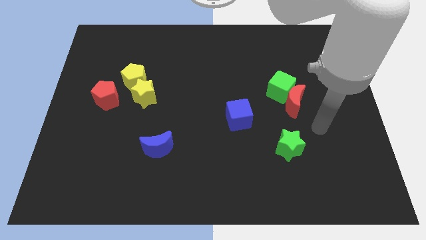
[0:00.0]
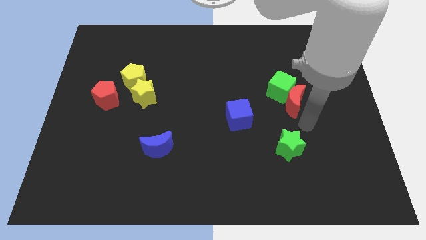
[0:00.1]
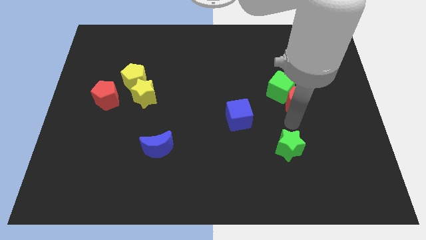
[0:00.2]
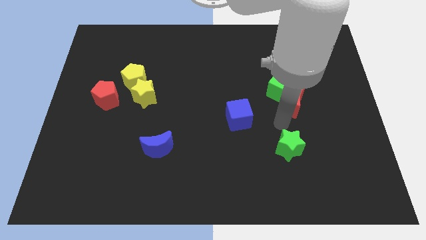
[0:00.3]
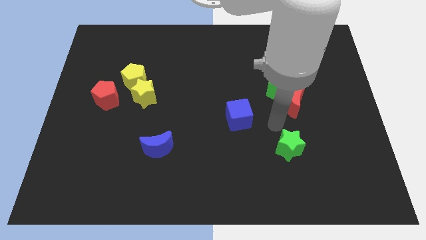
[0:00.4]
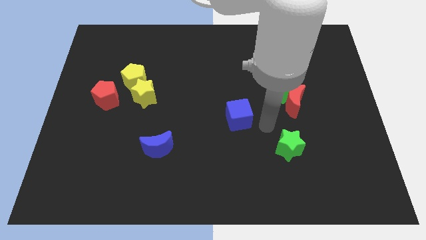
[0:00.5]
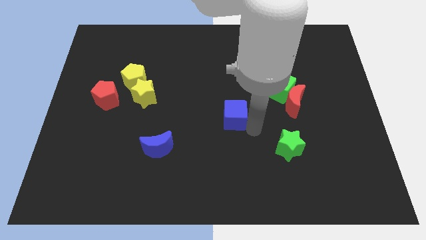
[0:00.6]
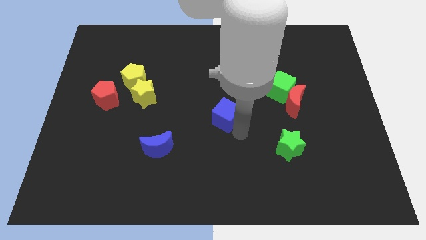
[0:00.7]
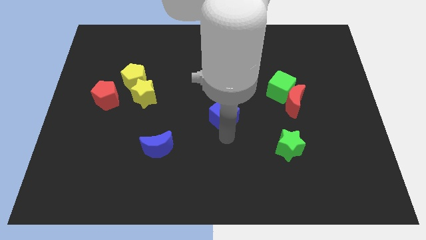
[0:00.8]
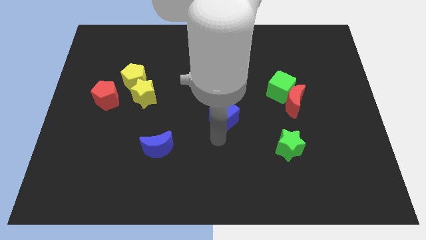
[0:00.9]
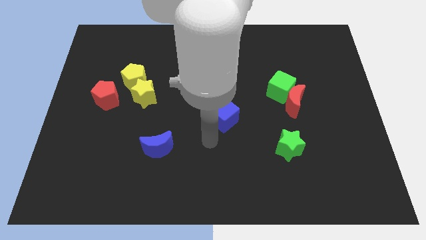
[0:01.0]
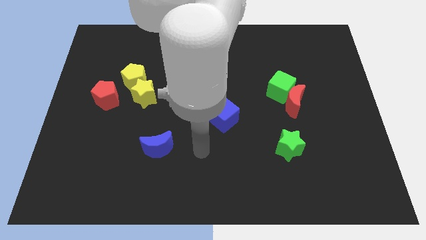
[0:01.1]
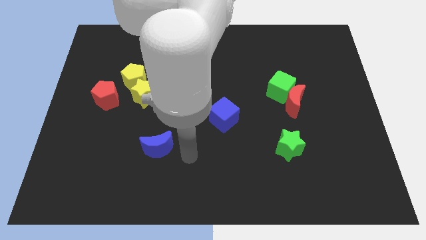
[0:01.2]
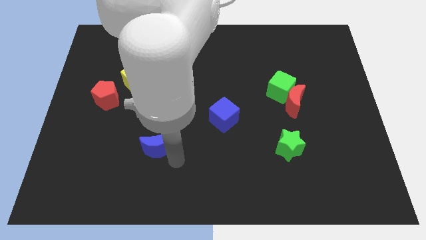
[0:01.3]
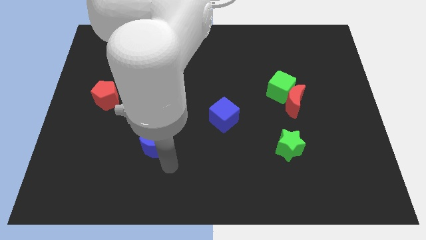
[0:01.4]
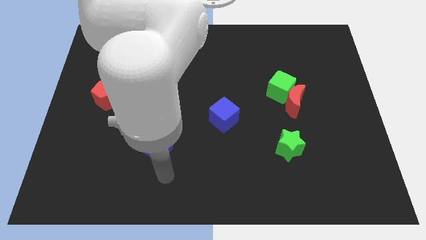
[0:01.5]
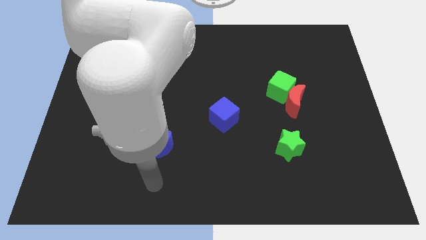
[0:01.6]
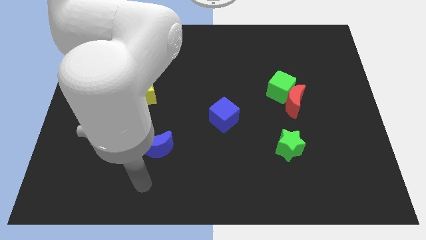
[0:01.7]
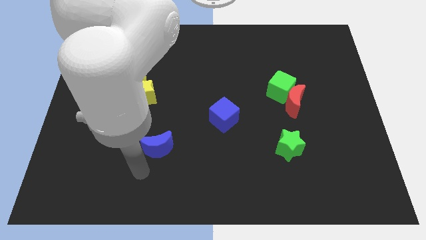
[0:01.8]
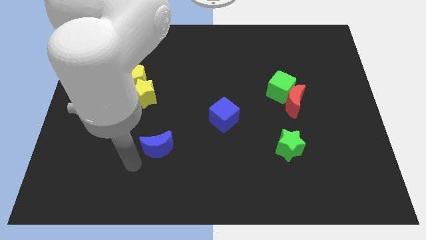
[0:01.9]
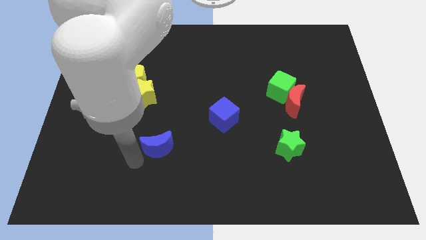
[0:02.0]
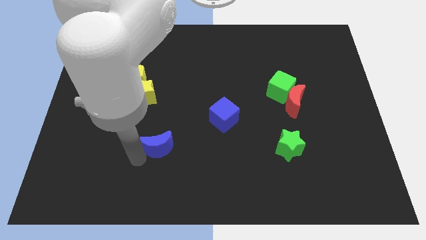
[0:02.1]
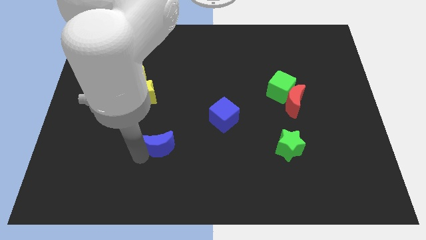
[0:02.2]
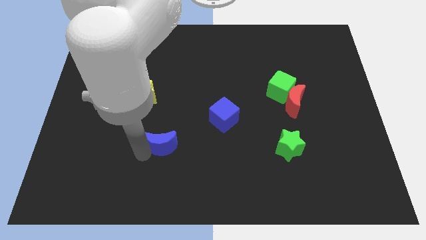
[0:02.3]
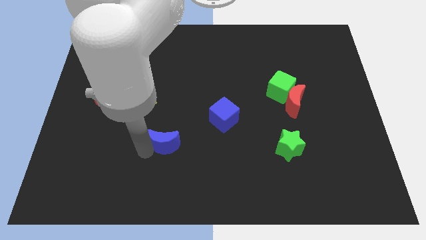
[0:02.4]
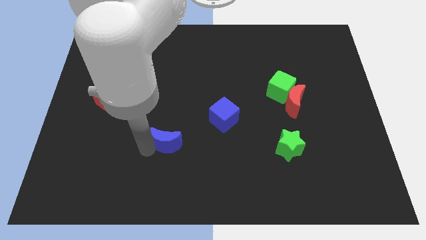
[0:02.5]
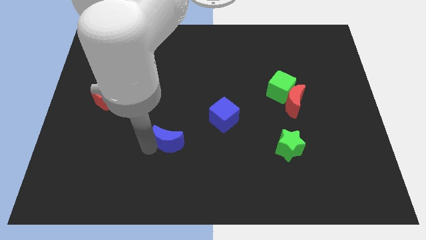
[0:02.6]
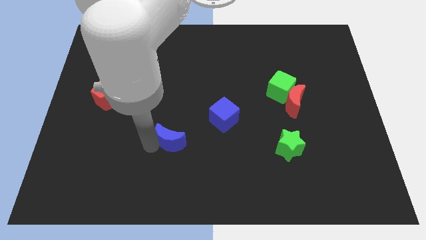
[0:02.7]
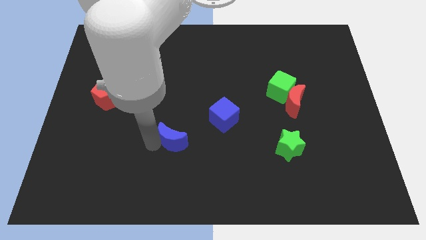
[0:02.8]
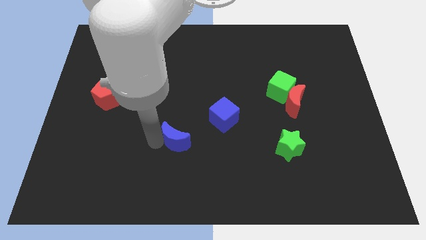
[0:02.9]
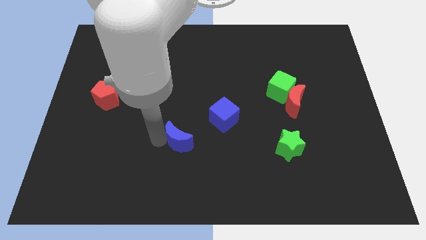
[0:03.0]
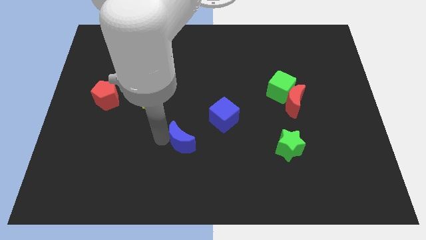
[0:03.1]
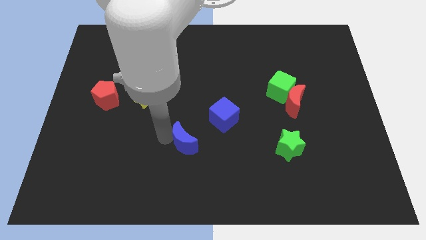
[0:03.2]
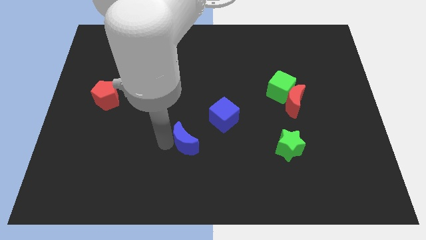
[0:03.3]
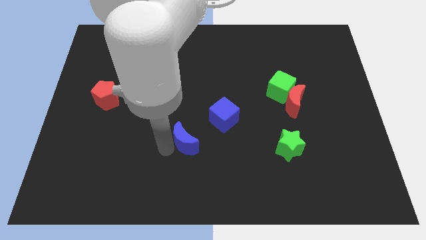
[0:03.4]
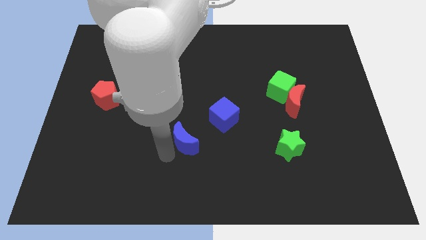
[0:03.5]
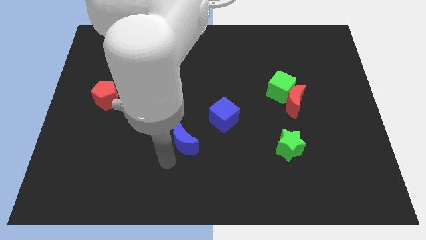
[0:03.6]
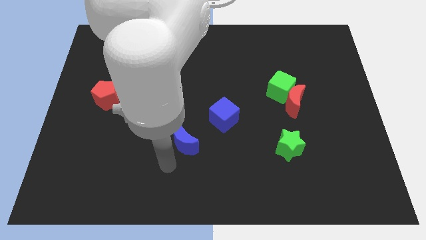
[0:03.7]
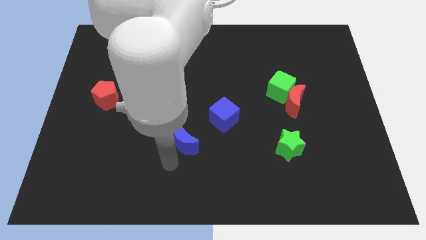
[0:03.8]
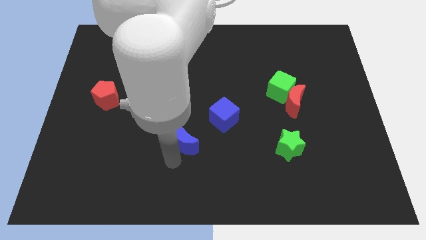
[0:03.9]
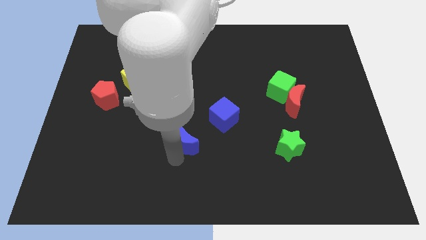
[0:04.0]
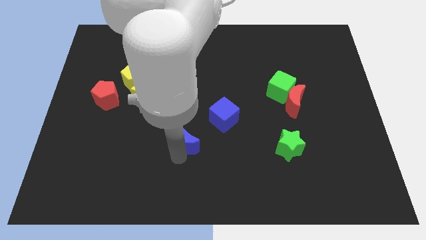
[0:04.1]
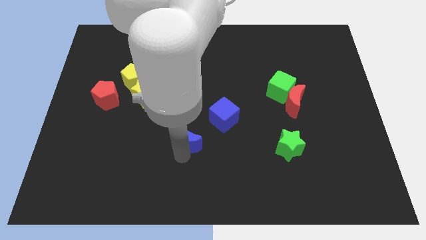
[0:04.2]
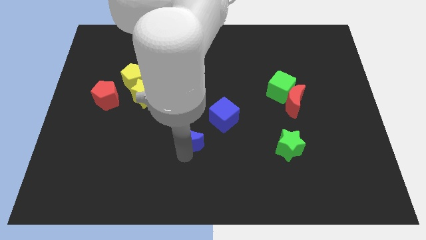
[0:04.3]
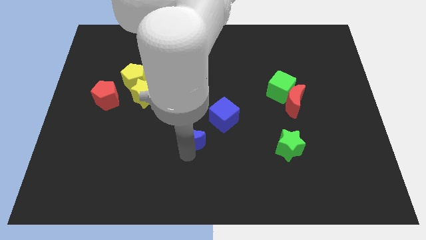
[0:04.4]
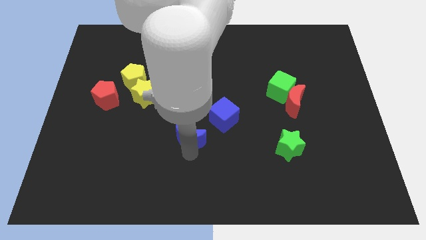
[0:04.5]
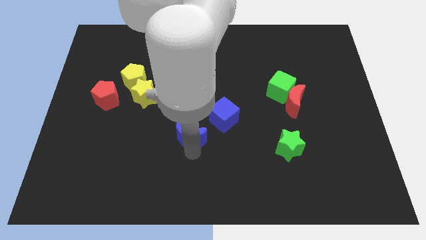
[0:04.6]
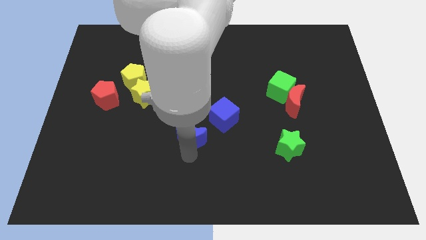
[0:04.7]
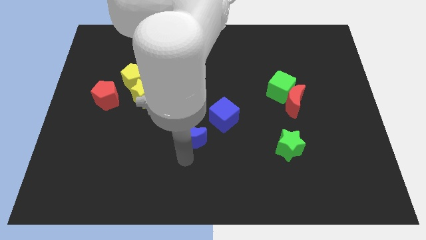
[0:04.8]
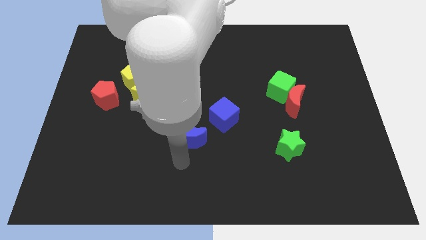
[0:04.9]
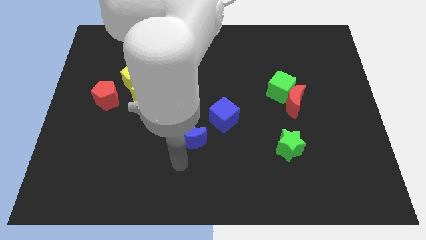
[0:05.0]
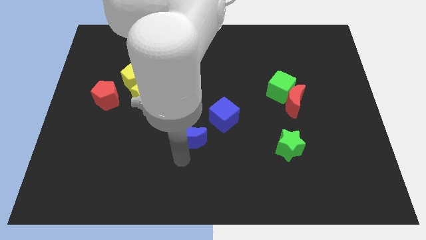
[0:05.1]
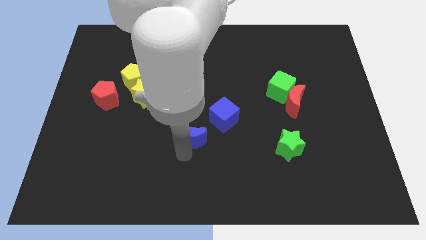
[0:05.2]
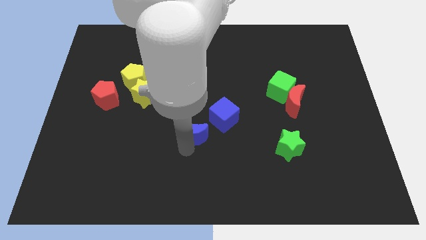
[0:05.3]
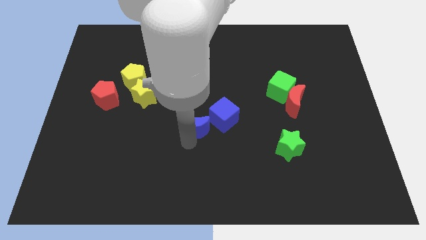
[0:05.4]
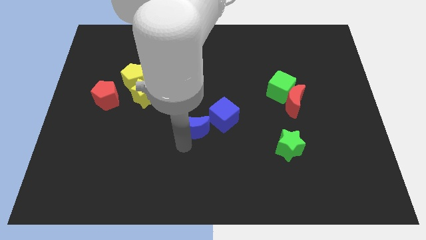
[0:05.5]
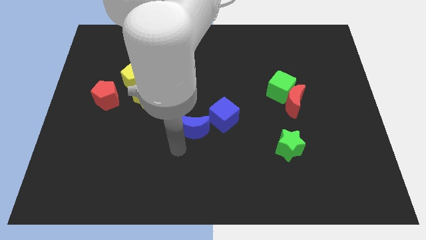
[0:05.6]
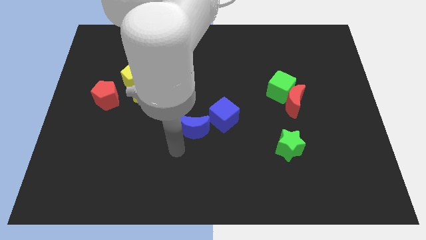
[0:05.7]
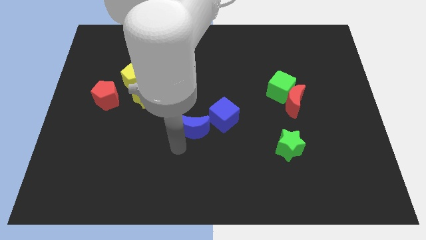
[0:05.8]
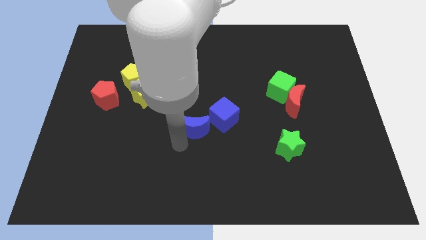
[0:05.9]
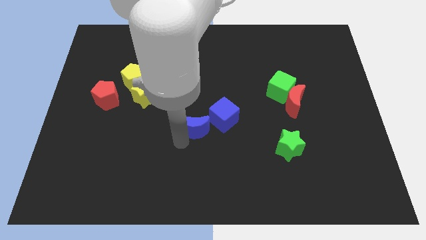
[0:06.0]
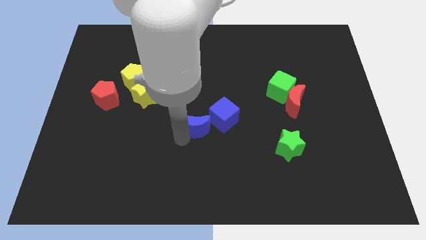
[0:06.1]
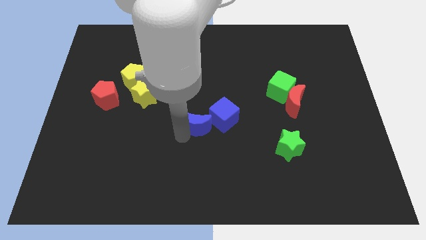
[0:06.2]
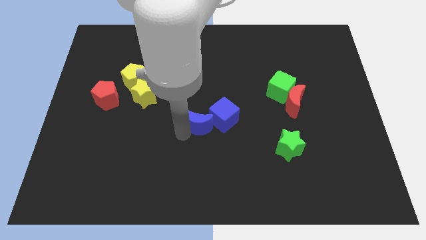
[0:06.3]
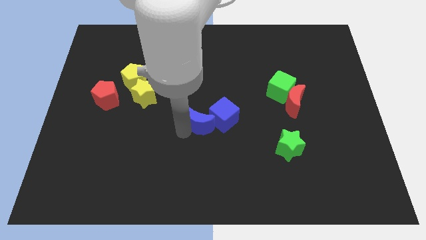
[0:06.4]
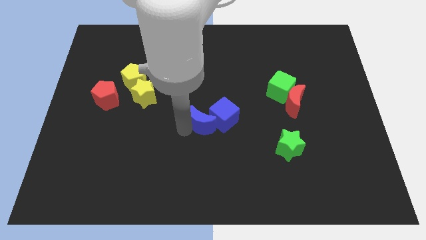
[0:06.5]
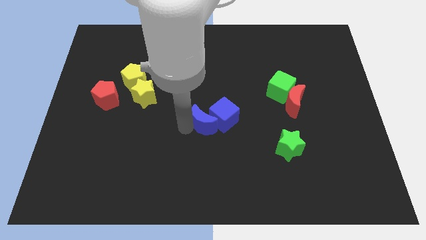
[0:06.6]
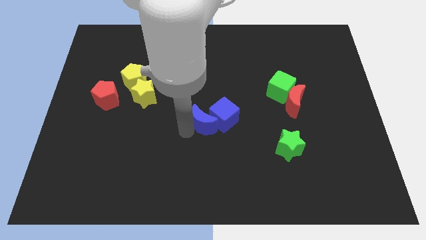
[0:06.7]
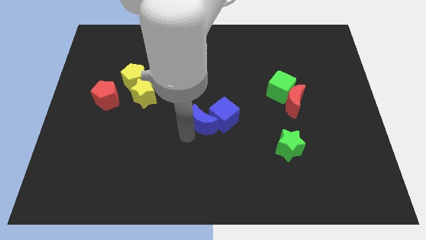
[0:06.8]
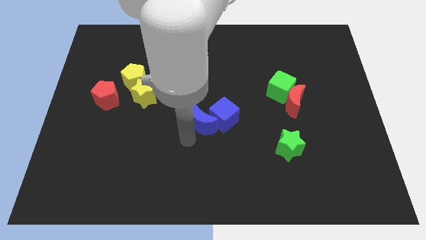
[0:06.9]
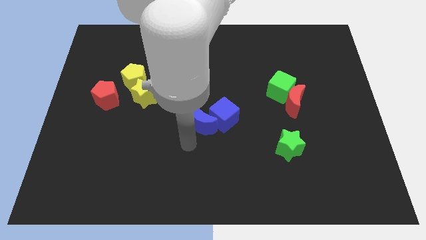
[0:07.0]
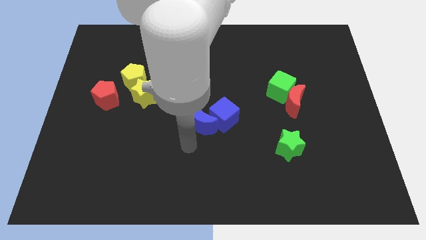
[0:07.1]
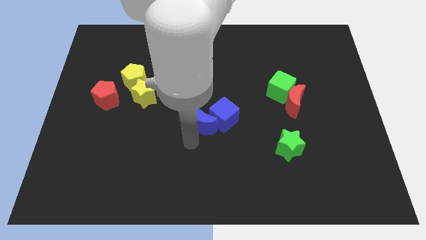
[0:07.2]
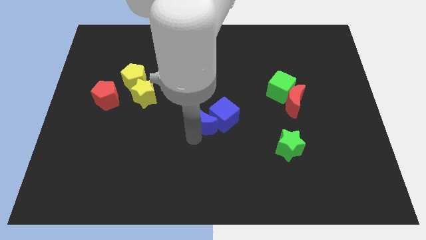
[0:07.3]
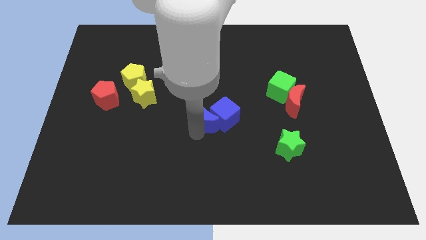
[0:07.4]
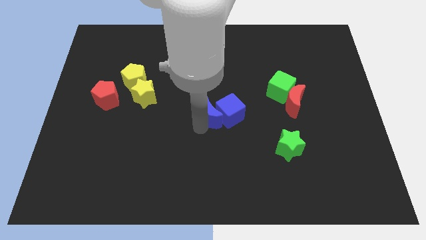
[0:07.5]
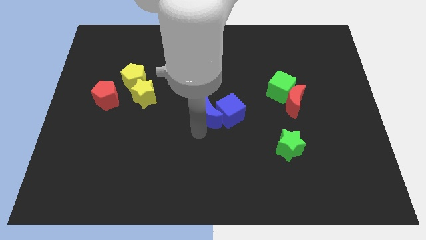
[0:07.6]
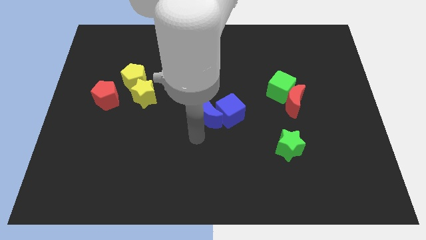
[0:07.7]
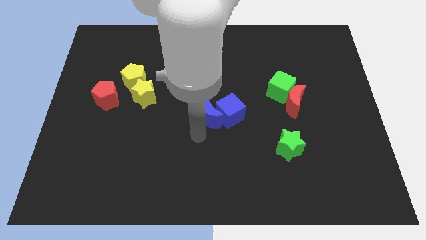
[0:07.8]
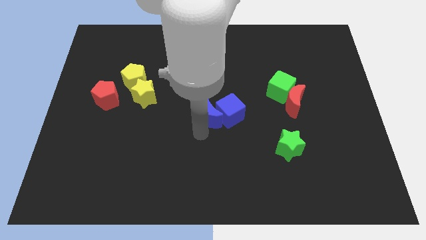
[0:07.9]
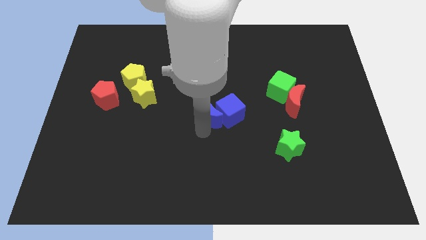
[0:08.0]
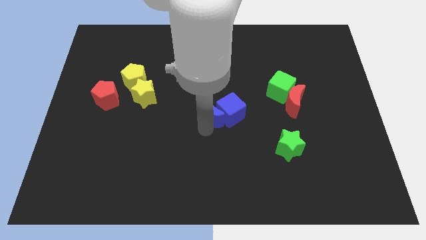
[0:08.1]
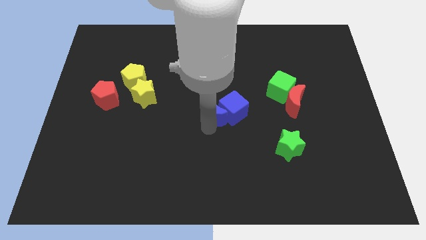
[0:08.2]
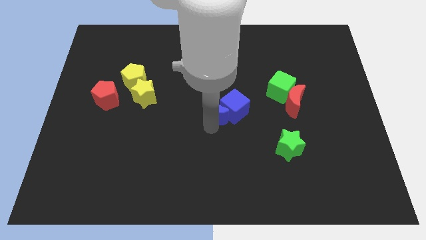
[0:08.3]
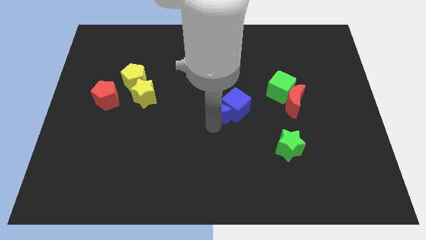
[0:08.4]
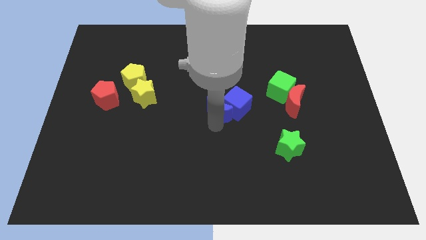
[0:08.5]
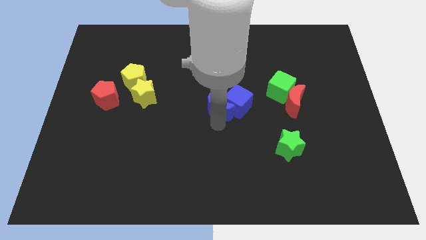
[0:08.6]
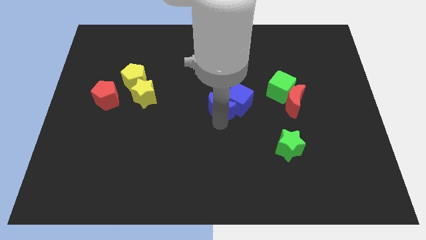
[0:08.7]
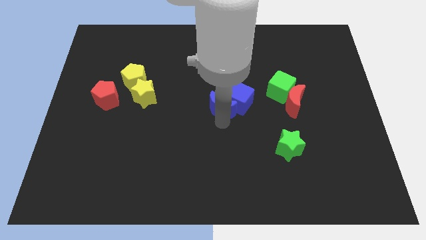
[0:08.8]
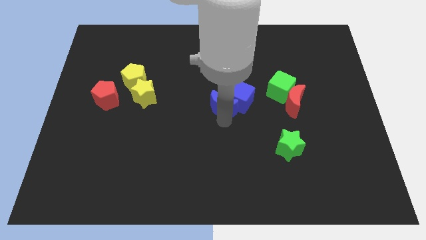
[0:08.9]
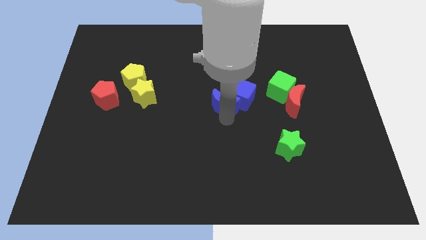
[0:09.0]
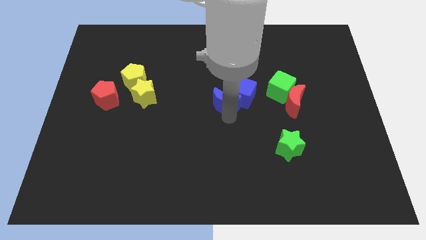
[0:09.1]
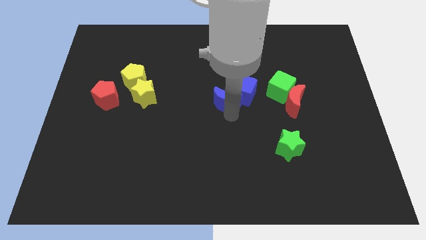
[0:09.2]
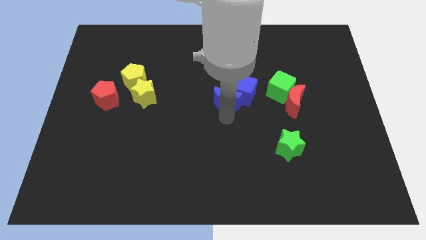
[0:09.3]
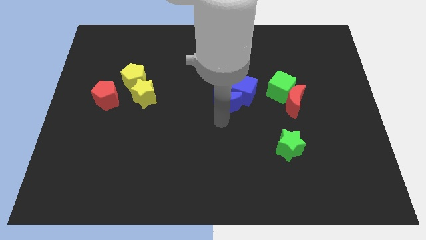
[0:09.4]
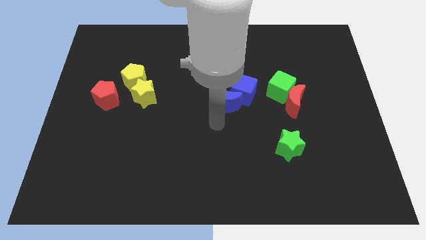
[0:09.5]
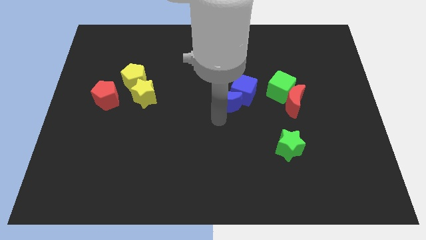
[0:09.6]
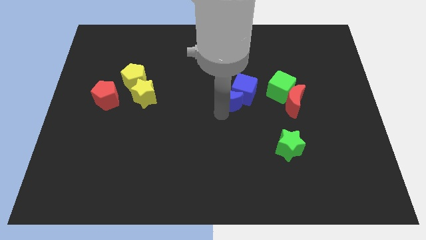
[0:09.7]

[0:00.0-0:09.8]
move the blue moon diagonally upwards and to the right
